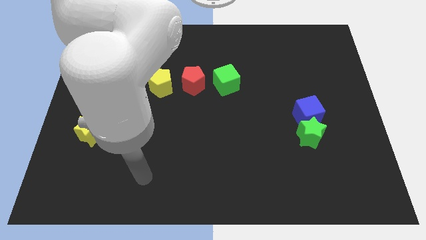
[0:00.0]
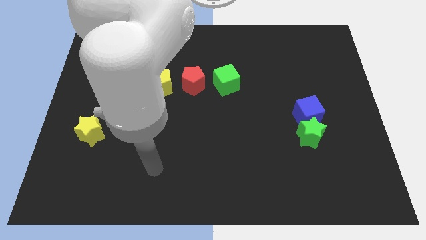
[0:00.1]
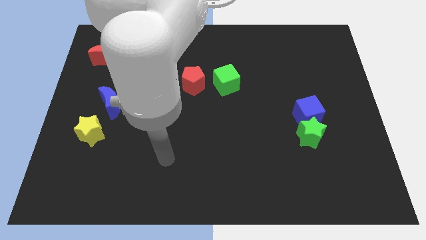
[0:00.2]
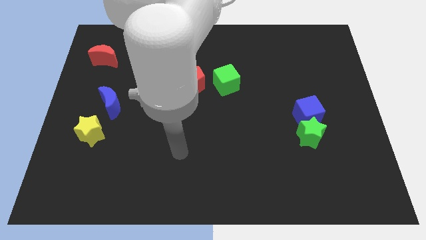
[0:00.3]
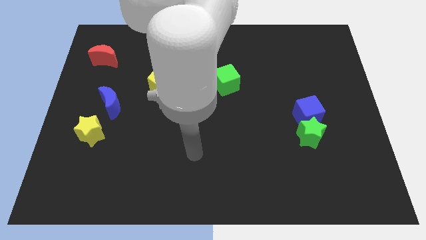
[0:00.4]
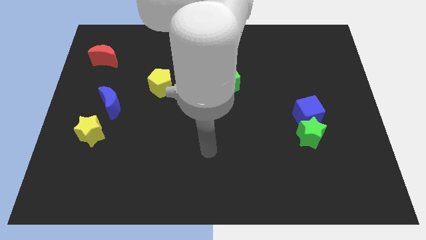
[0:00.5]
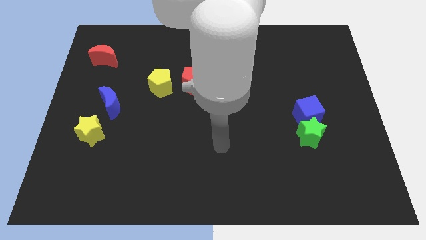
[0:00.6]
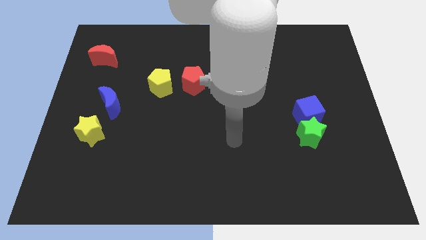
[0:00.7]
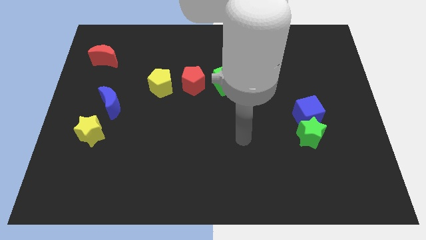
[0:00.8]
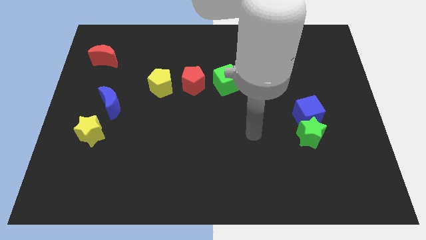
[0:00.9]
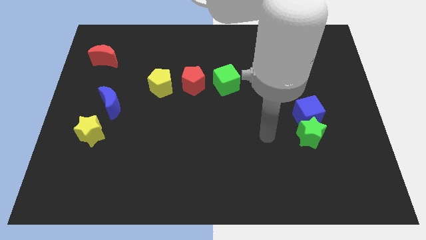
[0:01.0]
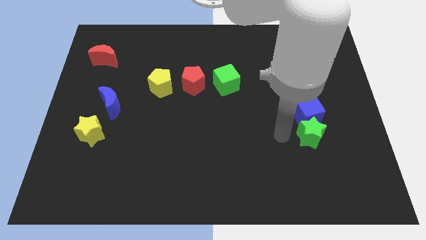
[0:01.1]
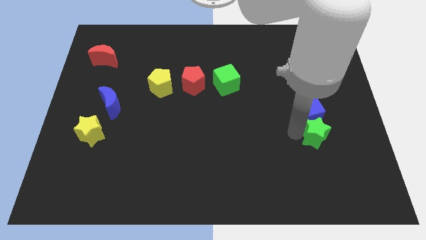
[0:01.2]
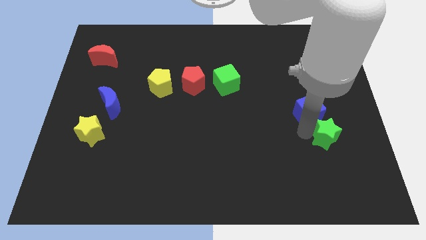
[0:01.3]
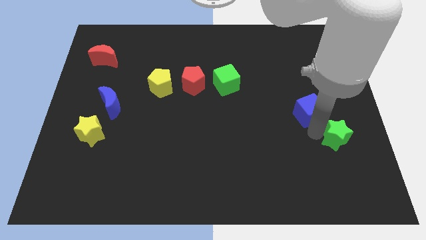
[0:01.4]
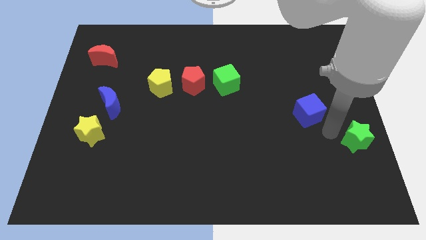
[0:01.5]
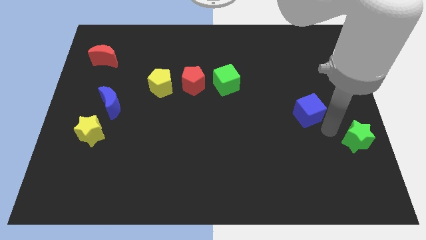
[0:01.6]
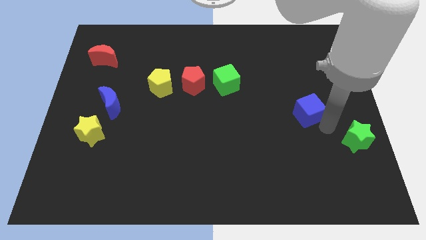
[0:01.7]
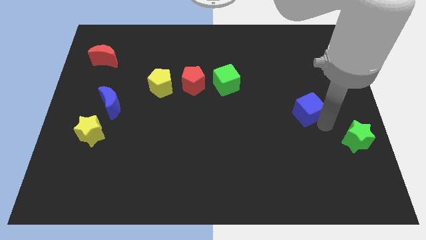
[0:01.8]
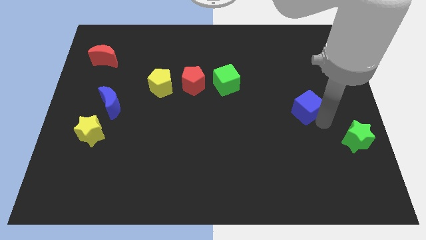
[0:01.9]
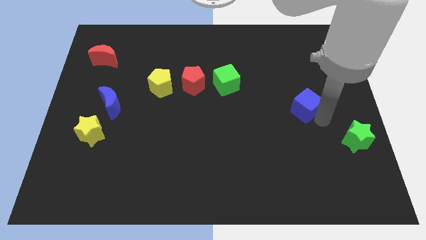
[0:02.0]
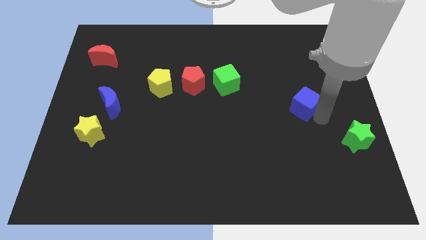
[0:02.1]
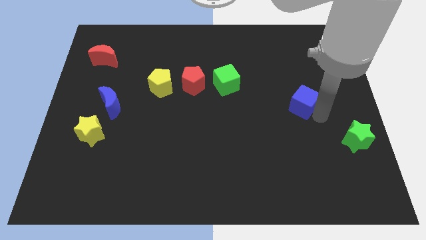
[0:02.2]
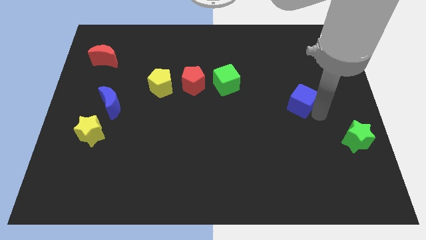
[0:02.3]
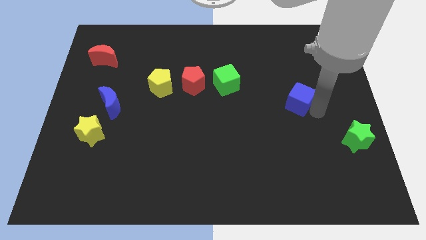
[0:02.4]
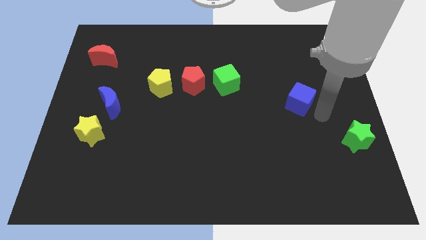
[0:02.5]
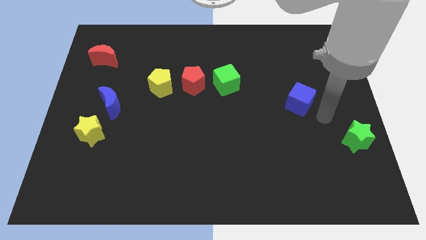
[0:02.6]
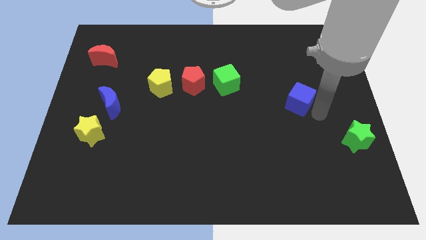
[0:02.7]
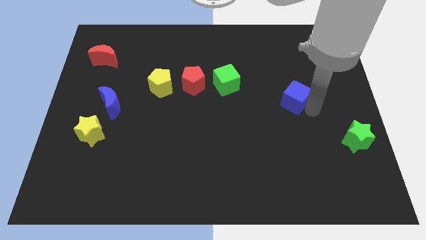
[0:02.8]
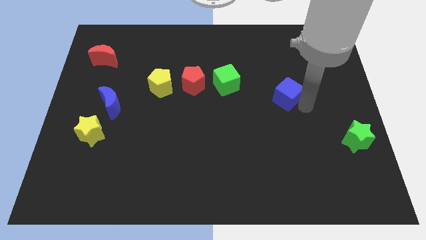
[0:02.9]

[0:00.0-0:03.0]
push the blue cube upwards and left a little

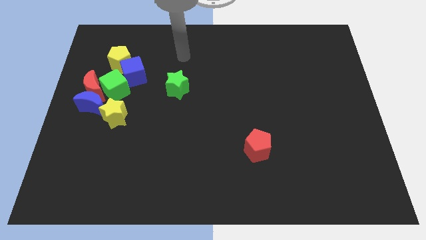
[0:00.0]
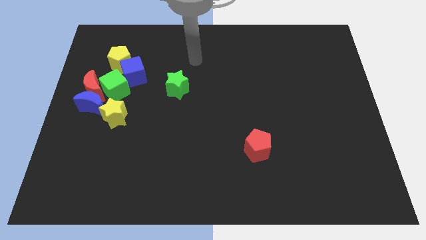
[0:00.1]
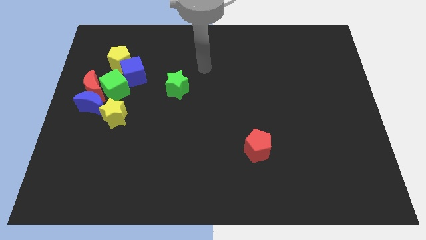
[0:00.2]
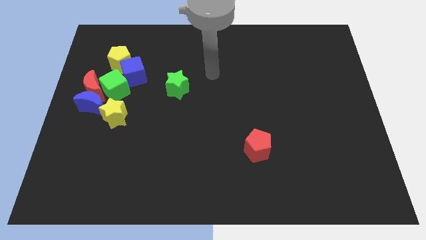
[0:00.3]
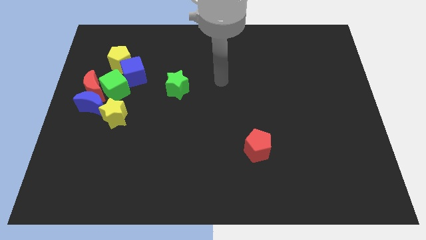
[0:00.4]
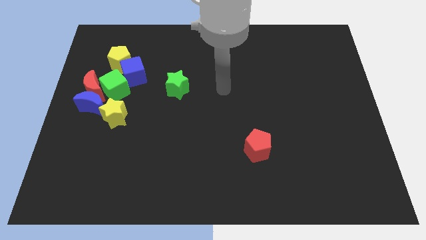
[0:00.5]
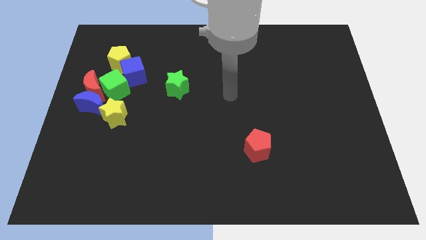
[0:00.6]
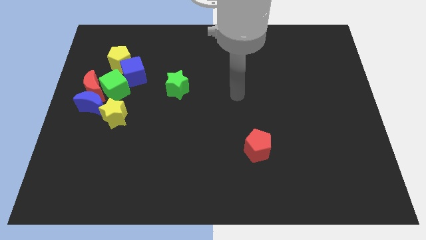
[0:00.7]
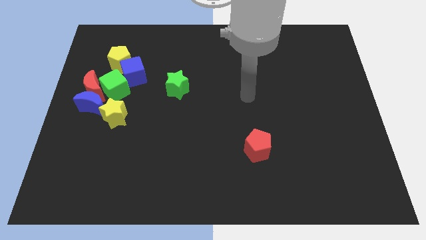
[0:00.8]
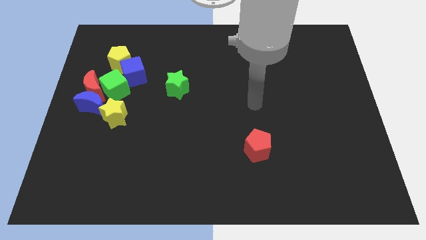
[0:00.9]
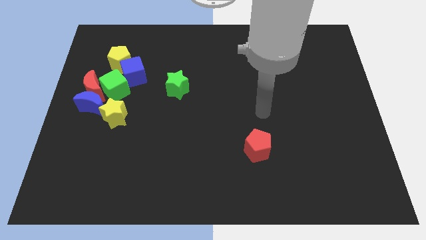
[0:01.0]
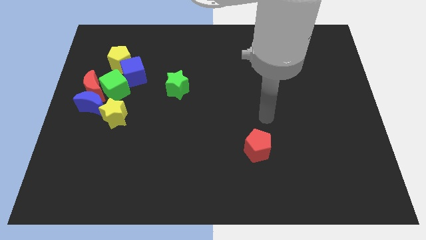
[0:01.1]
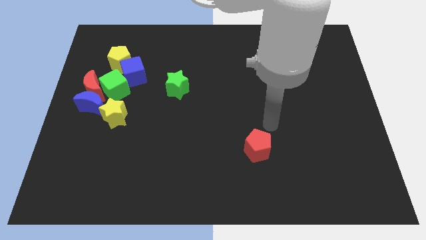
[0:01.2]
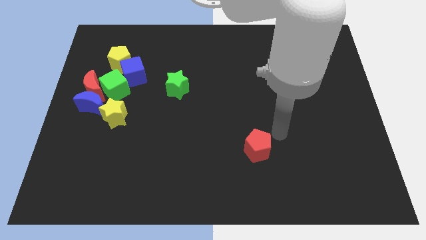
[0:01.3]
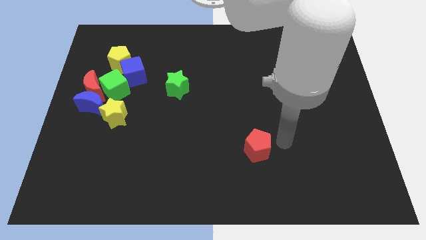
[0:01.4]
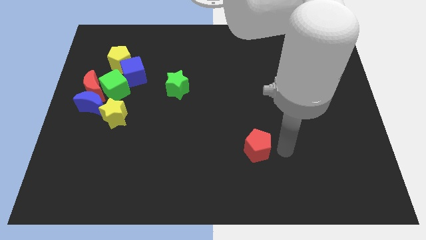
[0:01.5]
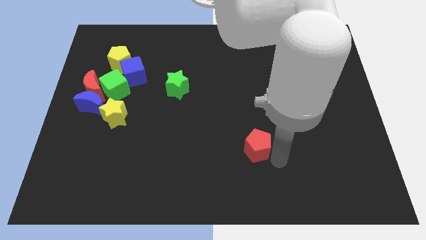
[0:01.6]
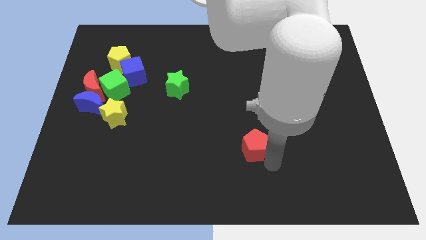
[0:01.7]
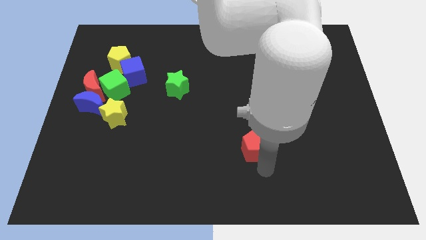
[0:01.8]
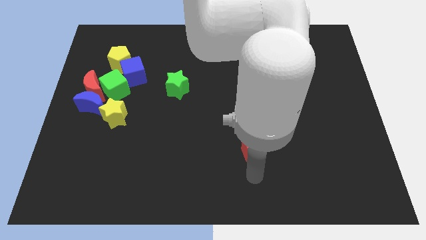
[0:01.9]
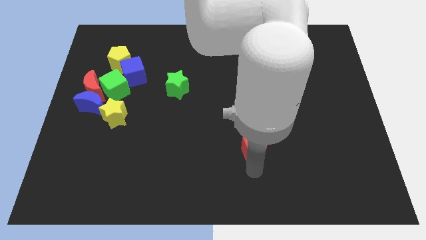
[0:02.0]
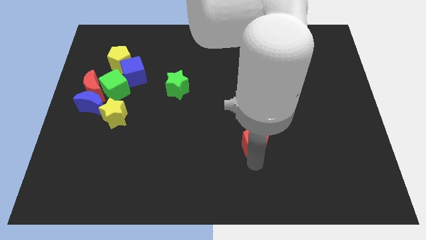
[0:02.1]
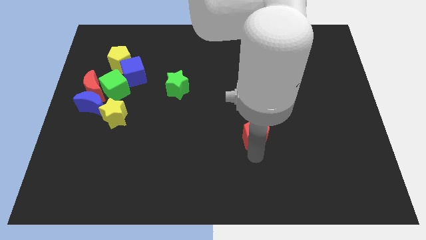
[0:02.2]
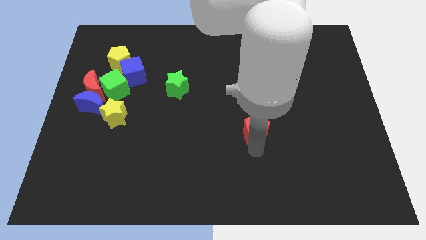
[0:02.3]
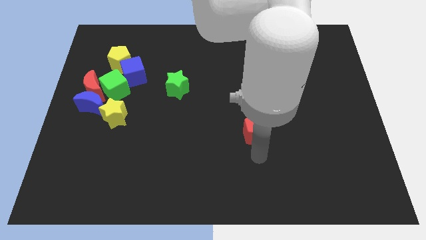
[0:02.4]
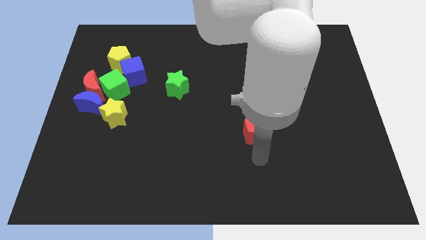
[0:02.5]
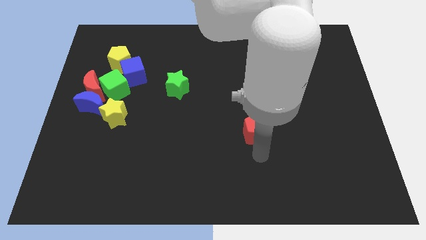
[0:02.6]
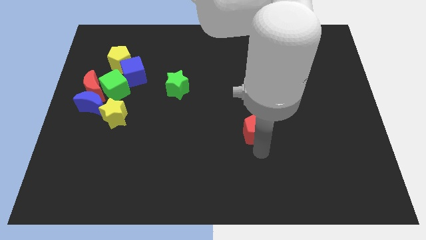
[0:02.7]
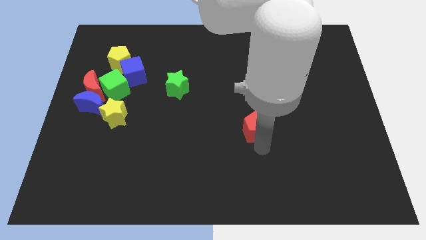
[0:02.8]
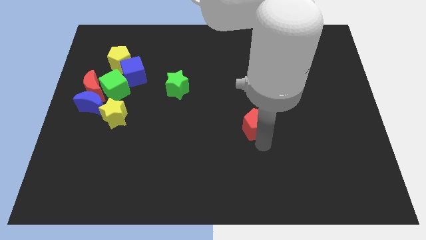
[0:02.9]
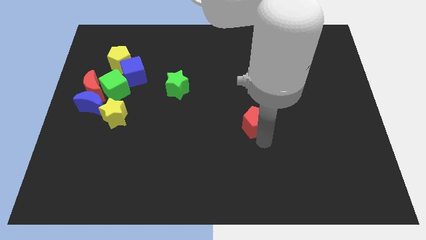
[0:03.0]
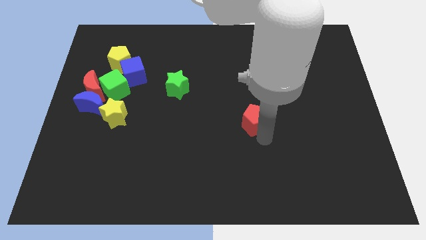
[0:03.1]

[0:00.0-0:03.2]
push the red pentagon a bit upwards

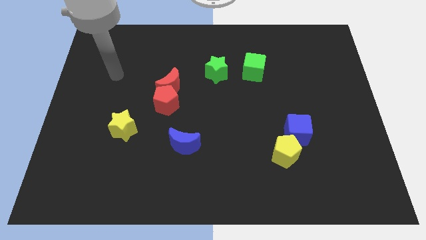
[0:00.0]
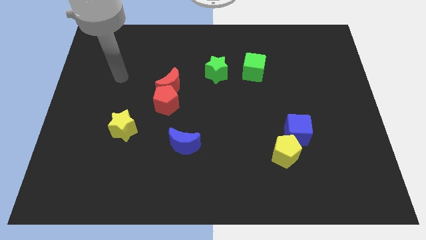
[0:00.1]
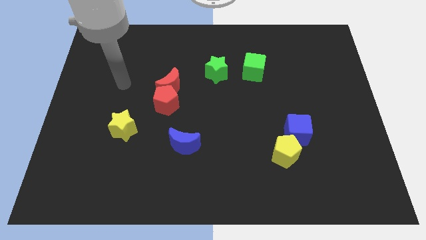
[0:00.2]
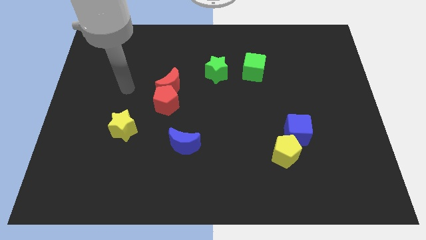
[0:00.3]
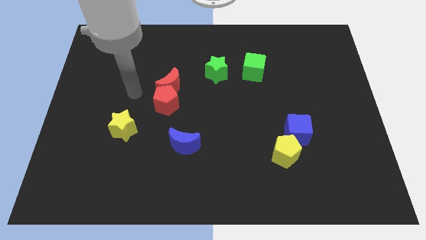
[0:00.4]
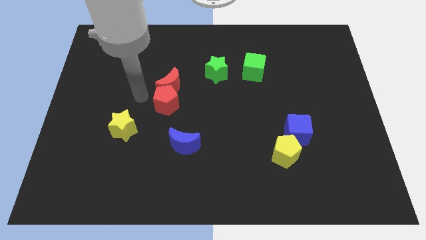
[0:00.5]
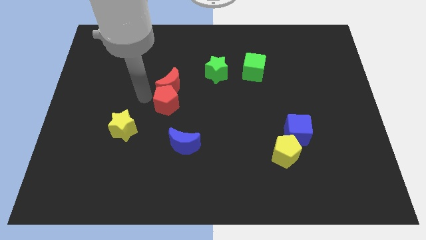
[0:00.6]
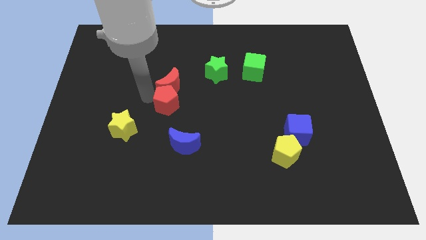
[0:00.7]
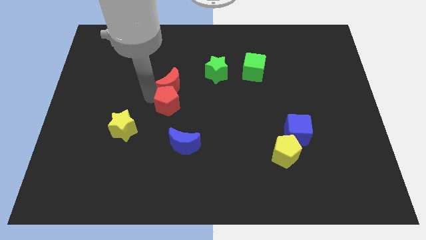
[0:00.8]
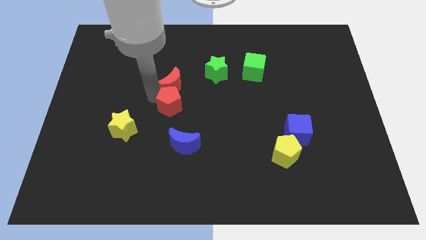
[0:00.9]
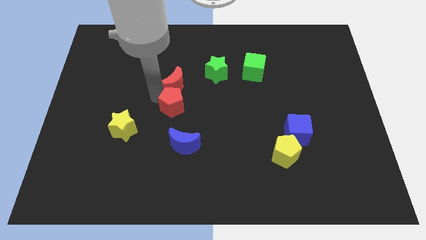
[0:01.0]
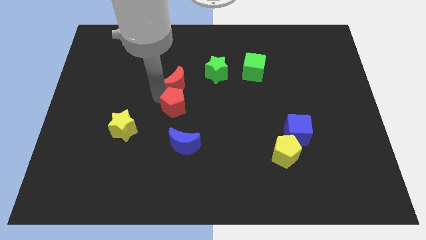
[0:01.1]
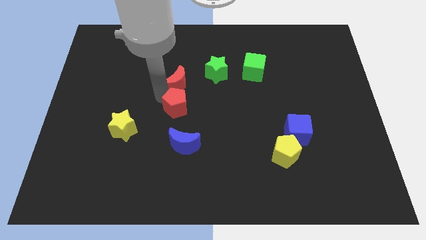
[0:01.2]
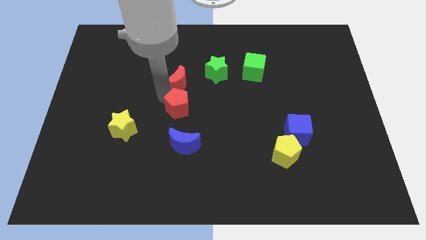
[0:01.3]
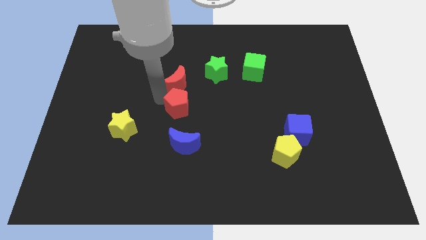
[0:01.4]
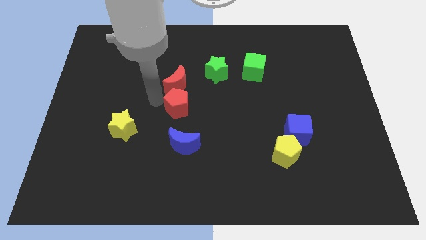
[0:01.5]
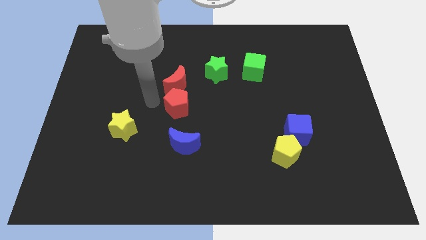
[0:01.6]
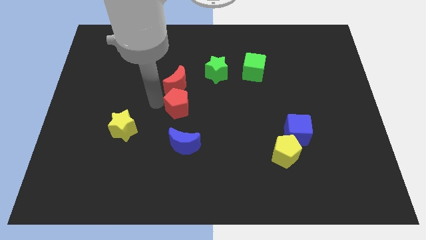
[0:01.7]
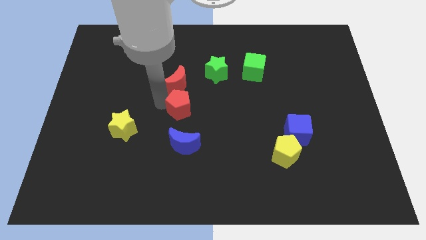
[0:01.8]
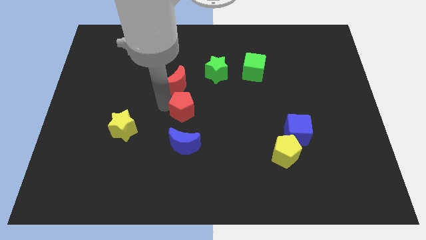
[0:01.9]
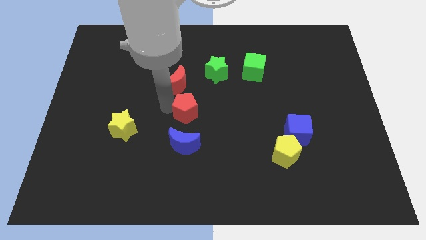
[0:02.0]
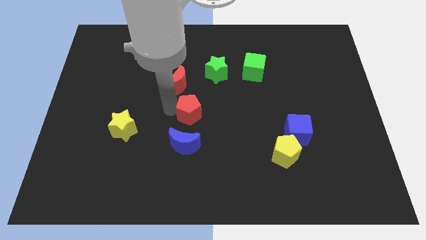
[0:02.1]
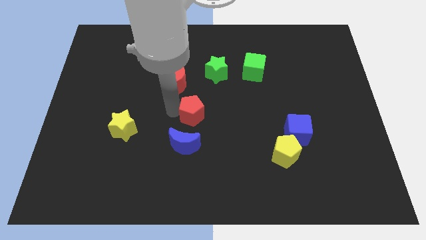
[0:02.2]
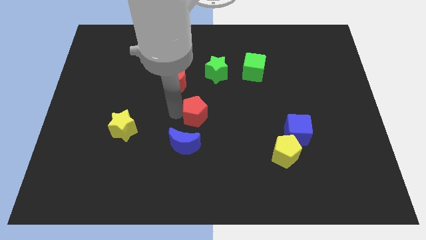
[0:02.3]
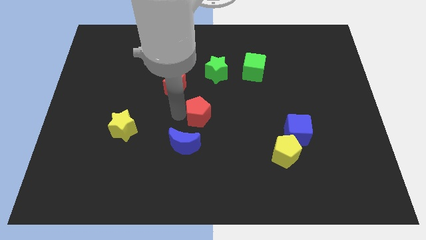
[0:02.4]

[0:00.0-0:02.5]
push the red pentagon a bit right
